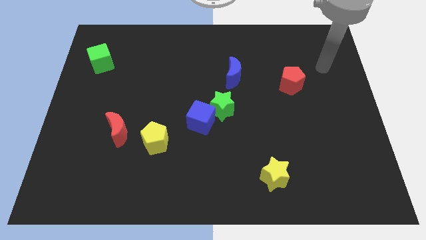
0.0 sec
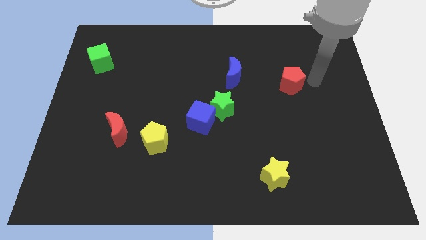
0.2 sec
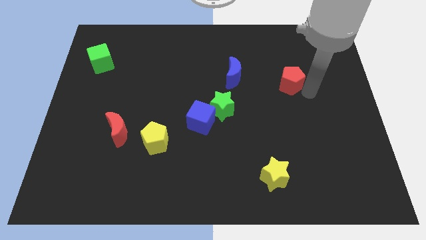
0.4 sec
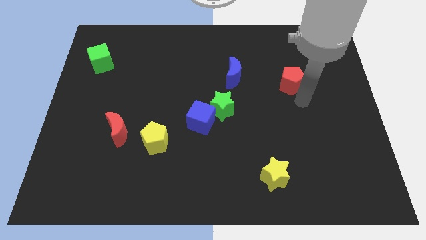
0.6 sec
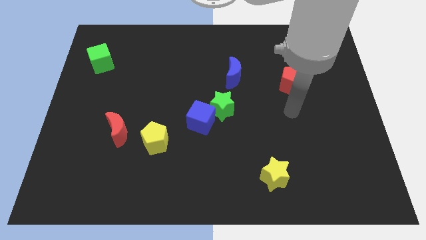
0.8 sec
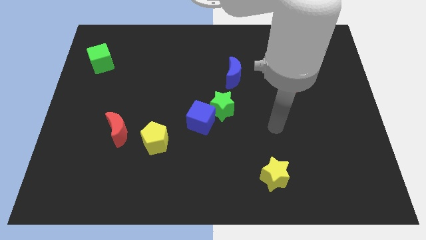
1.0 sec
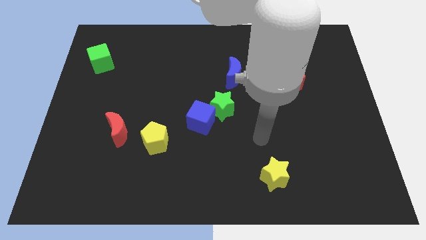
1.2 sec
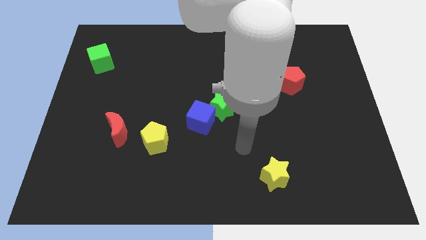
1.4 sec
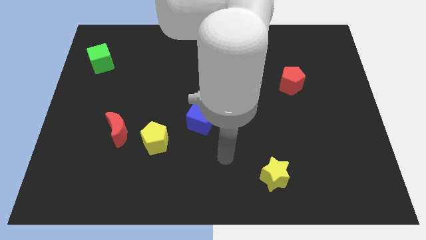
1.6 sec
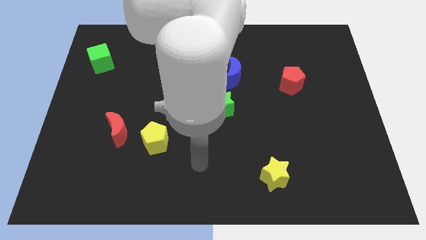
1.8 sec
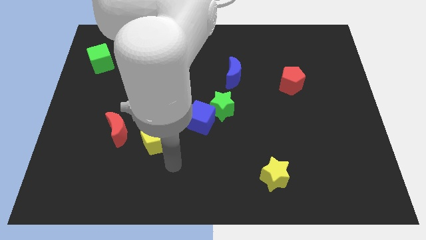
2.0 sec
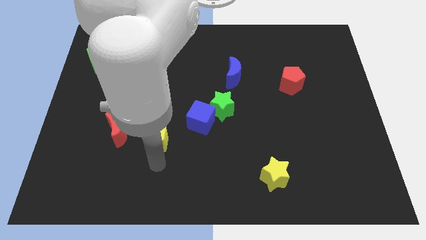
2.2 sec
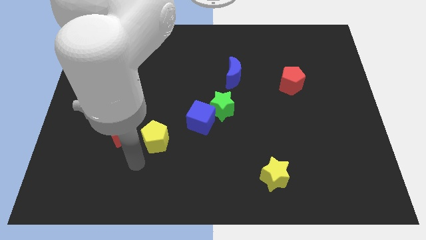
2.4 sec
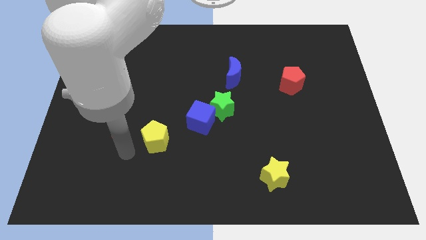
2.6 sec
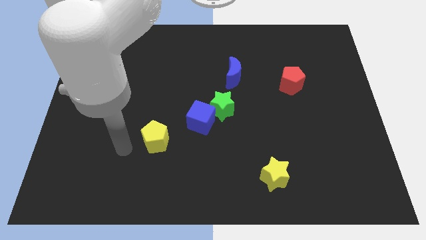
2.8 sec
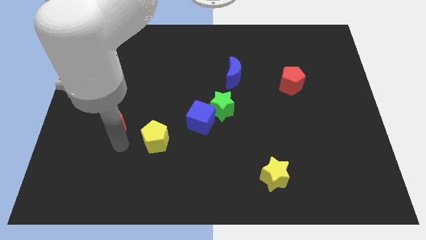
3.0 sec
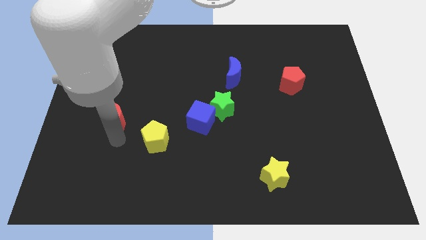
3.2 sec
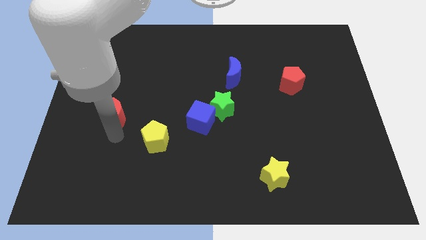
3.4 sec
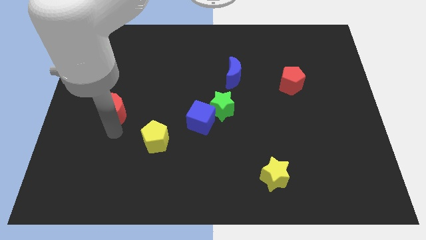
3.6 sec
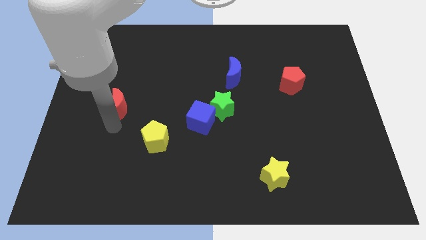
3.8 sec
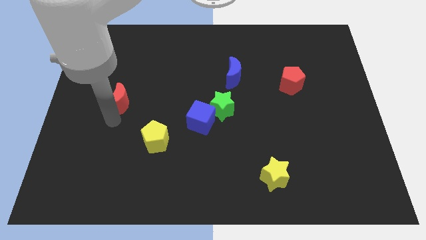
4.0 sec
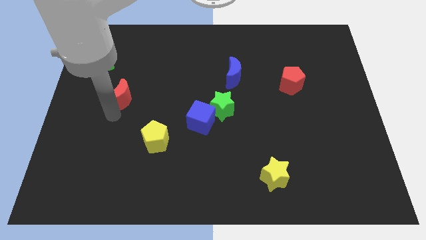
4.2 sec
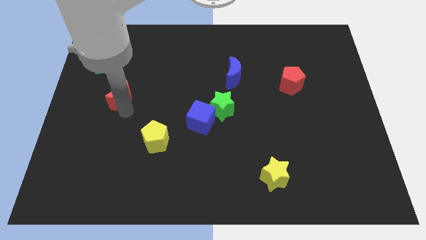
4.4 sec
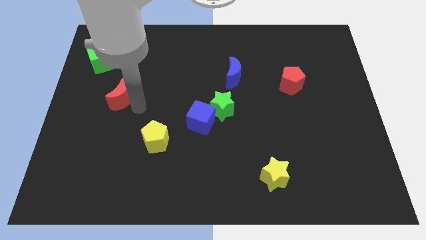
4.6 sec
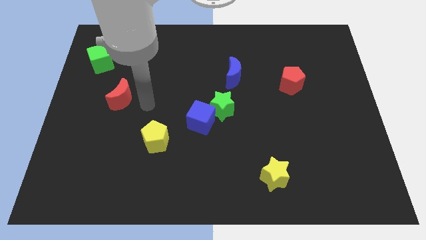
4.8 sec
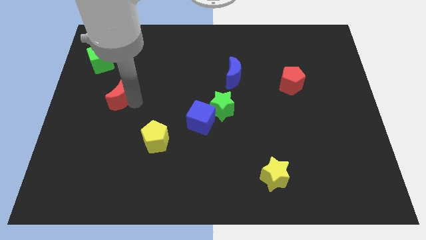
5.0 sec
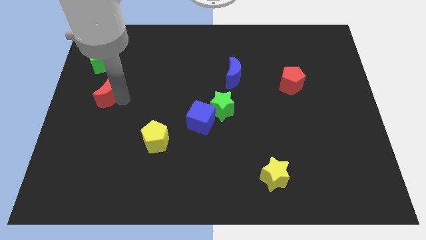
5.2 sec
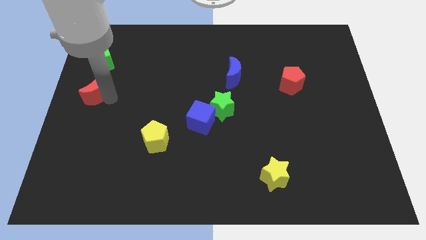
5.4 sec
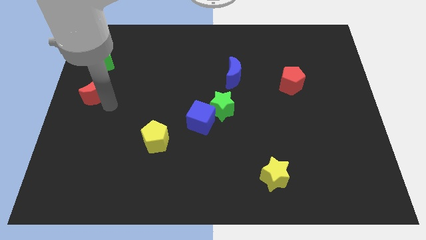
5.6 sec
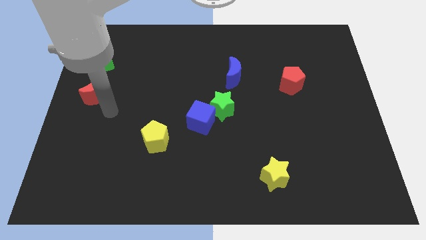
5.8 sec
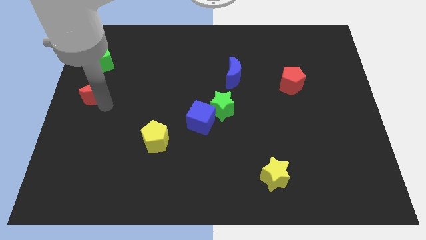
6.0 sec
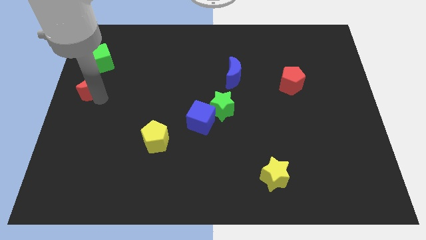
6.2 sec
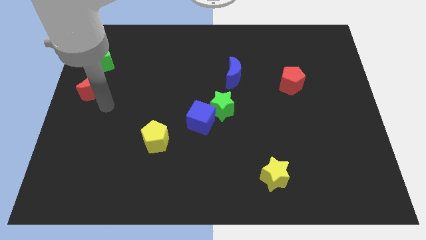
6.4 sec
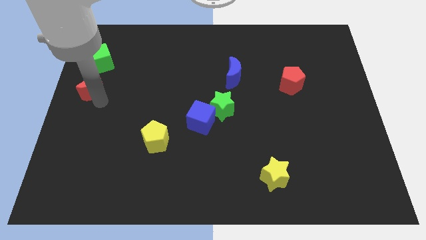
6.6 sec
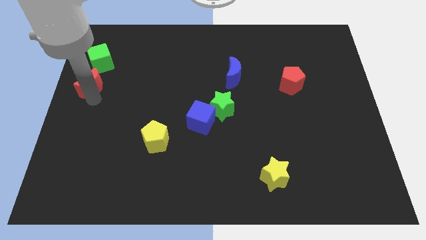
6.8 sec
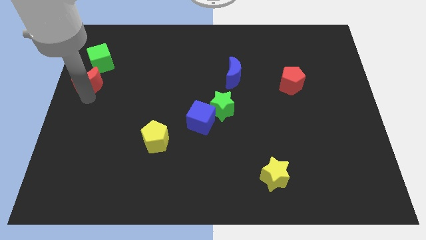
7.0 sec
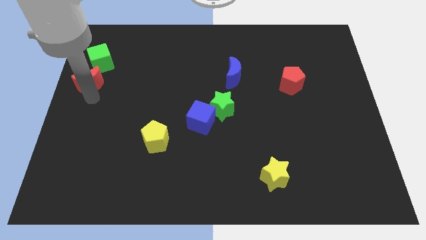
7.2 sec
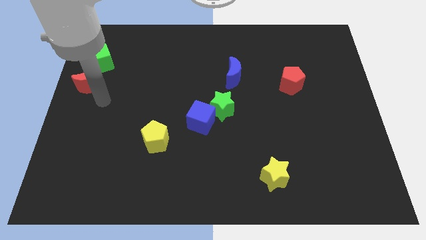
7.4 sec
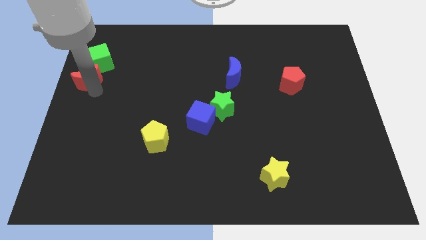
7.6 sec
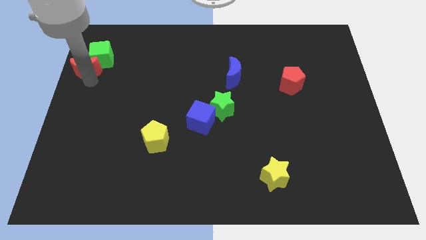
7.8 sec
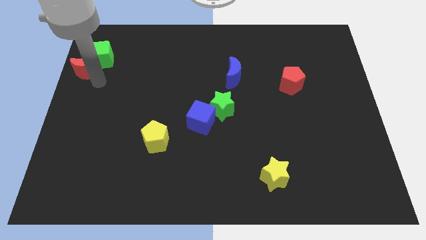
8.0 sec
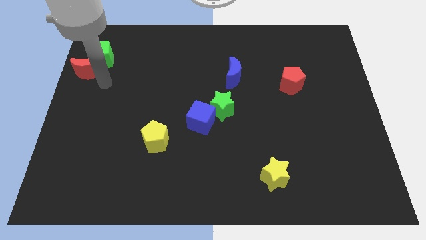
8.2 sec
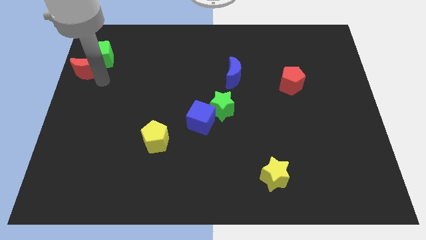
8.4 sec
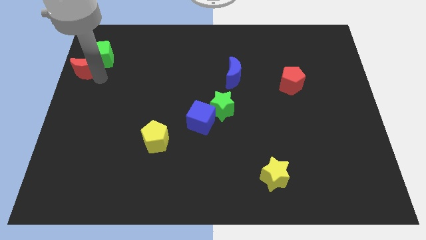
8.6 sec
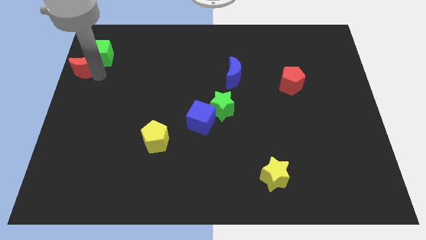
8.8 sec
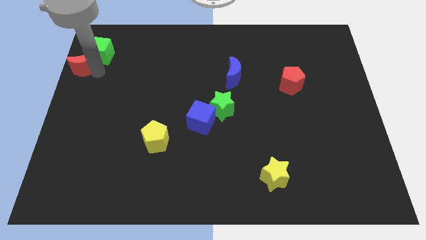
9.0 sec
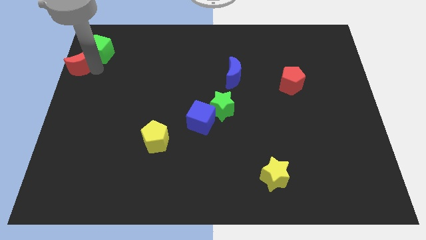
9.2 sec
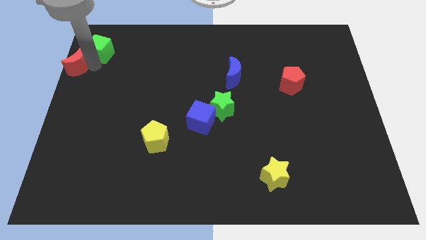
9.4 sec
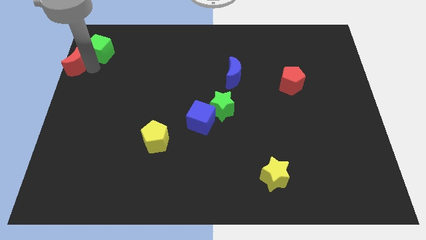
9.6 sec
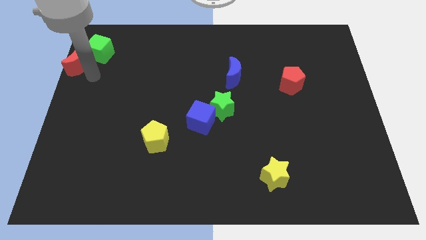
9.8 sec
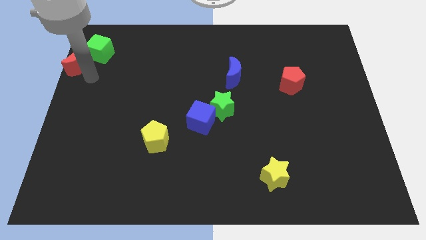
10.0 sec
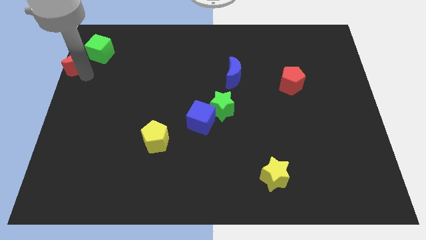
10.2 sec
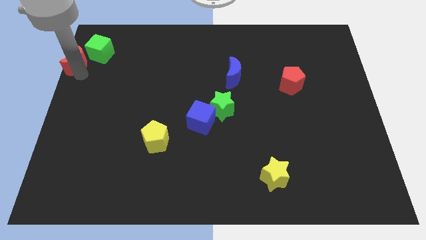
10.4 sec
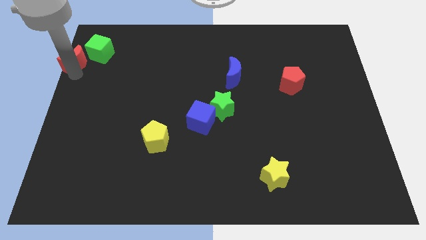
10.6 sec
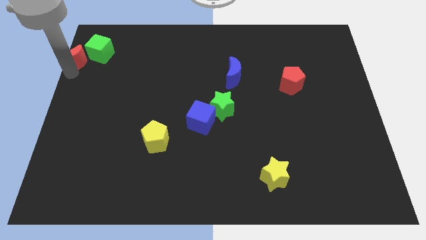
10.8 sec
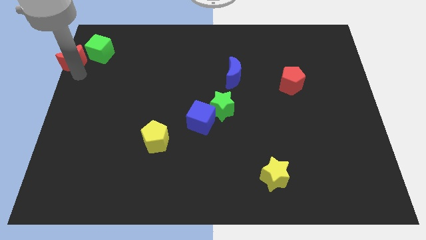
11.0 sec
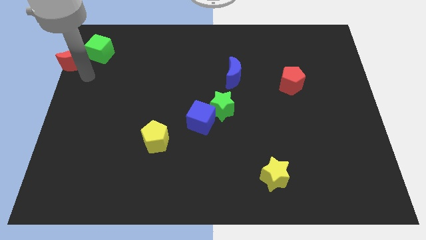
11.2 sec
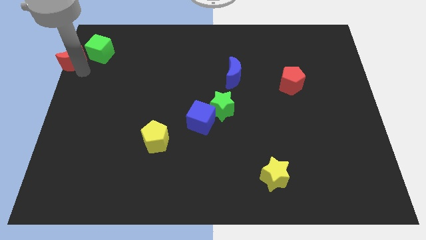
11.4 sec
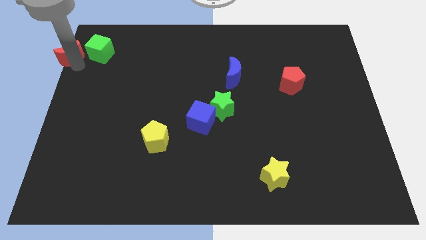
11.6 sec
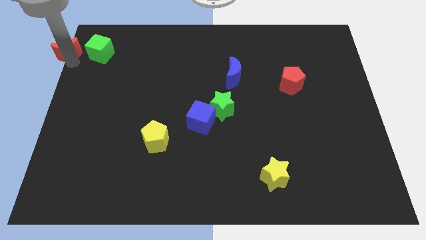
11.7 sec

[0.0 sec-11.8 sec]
slide the red moon to the top left corner
